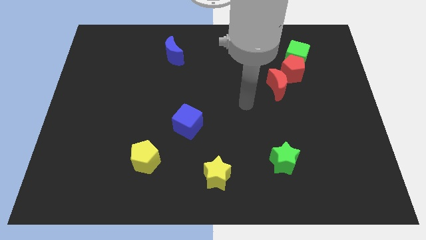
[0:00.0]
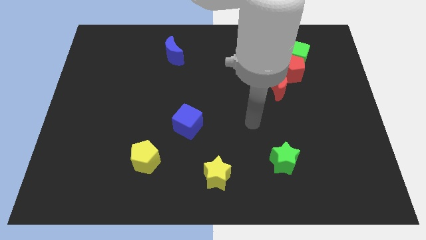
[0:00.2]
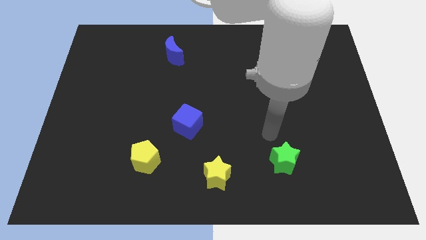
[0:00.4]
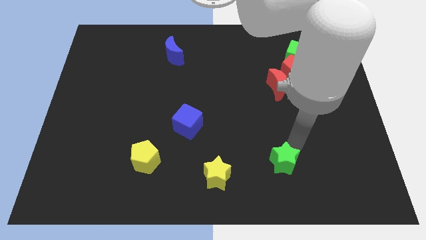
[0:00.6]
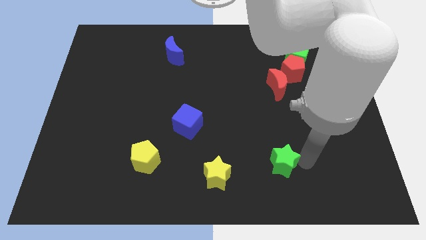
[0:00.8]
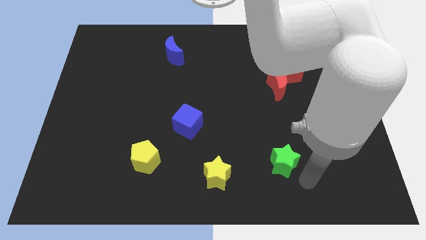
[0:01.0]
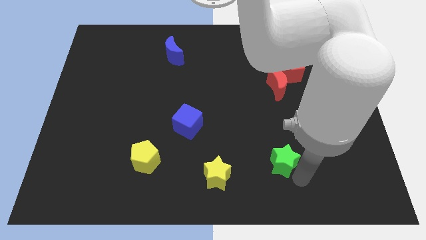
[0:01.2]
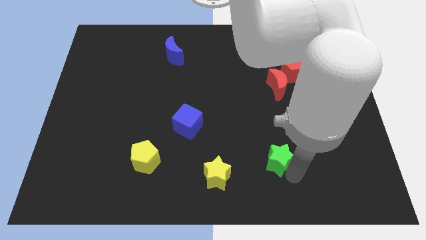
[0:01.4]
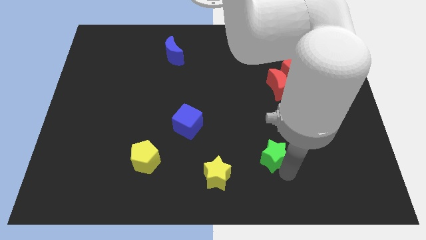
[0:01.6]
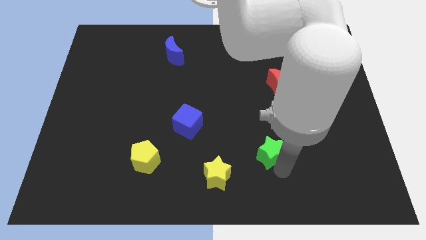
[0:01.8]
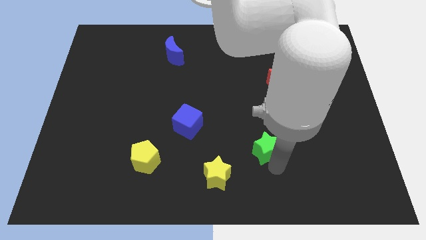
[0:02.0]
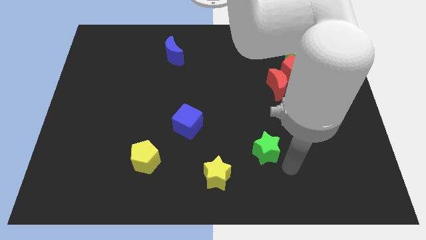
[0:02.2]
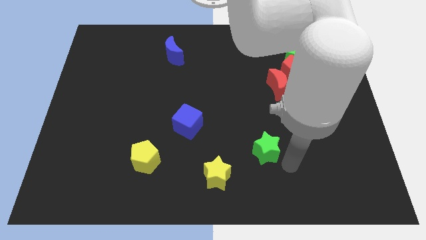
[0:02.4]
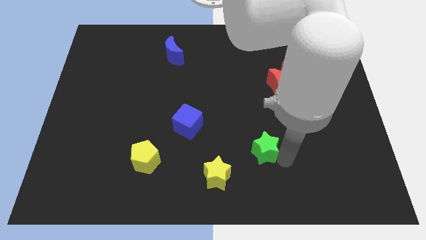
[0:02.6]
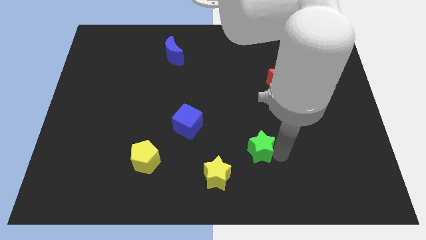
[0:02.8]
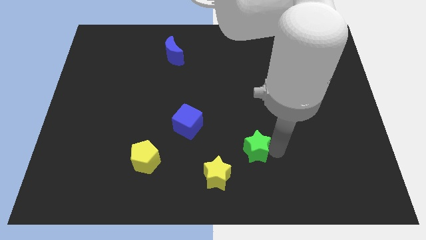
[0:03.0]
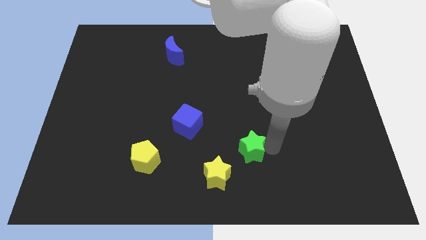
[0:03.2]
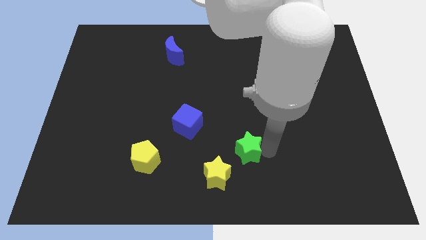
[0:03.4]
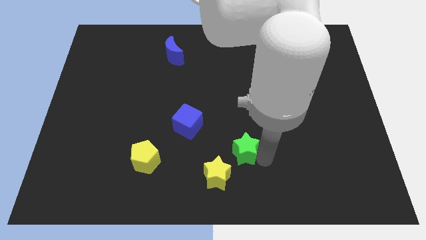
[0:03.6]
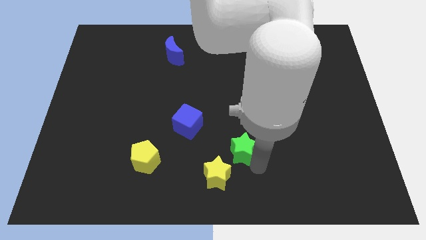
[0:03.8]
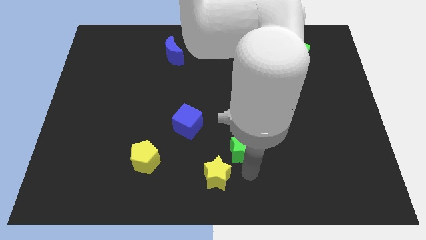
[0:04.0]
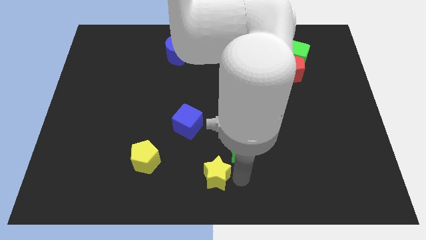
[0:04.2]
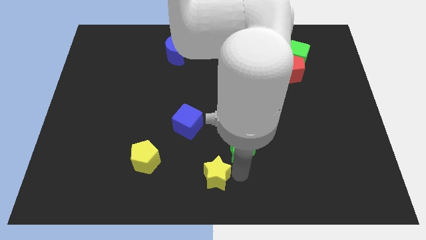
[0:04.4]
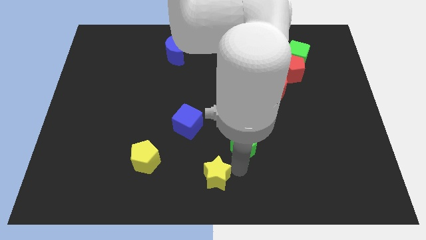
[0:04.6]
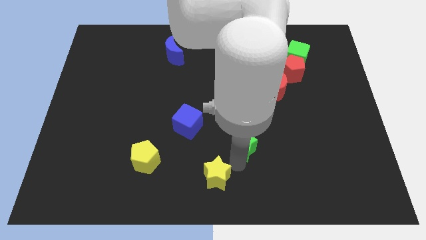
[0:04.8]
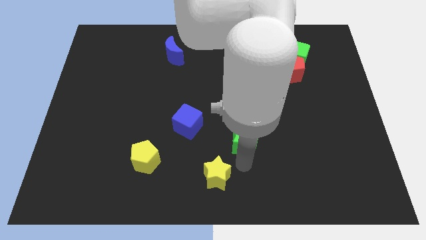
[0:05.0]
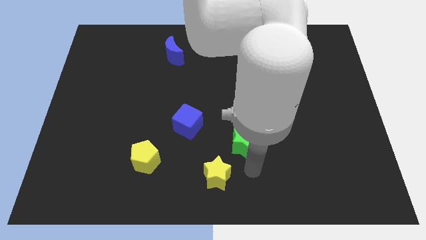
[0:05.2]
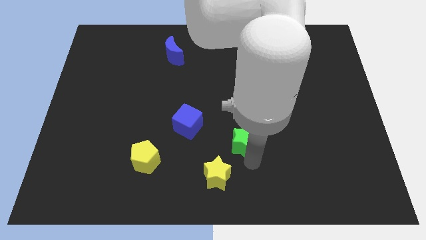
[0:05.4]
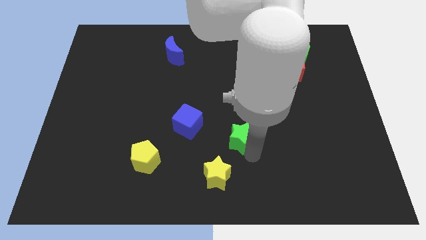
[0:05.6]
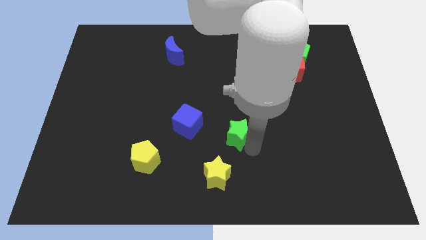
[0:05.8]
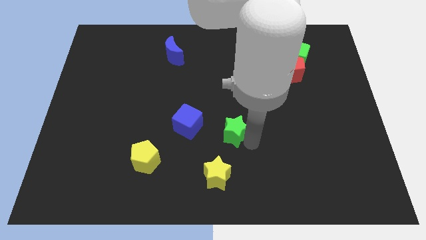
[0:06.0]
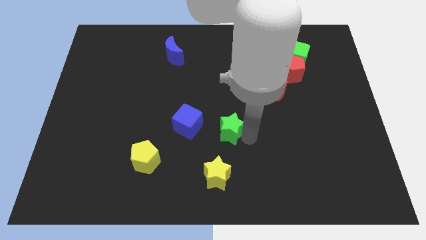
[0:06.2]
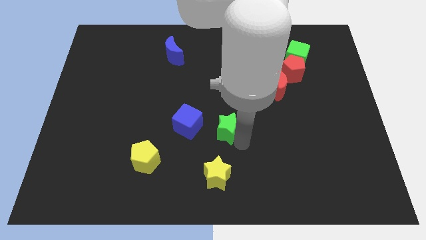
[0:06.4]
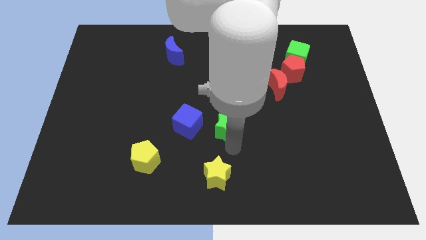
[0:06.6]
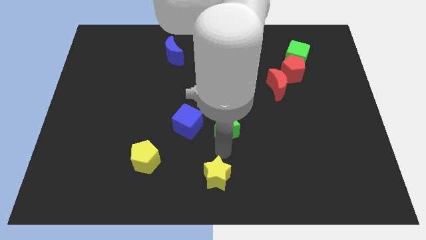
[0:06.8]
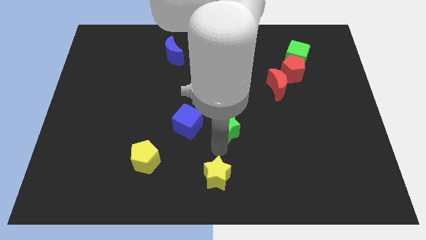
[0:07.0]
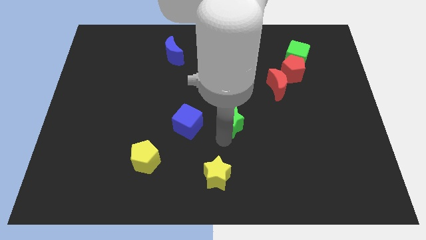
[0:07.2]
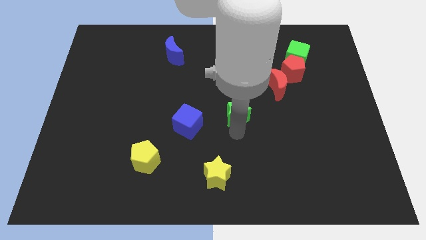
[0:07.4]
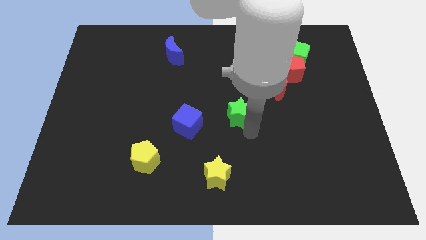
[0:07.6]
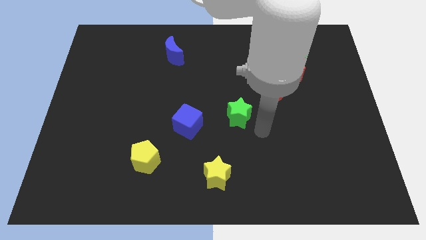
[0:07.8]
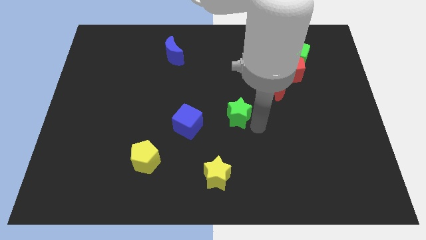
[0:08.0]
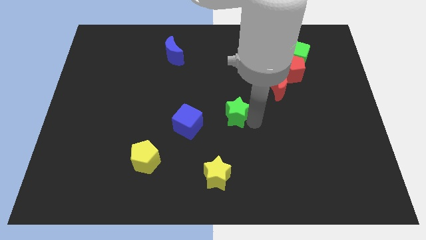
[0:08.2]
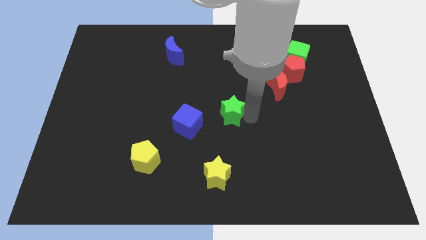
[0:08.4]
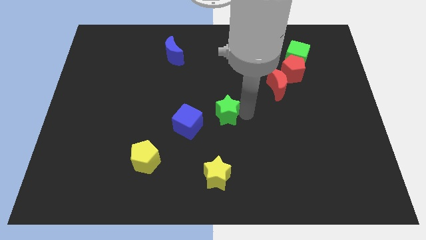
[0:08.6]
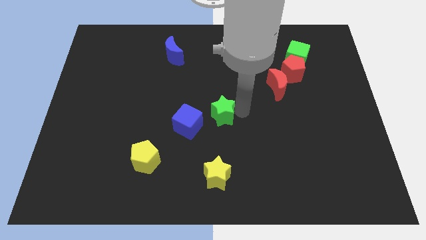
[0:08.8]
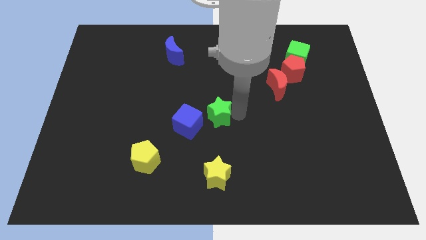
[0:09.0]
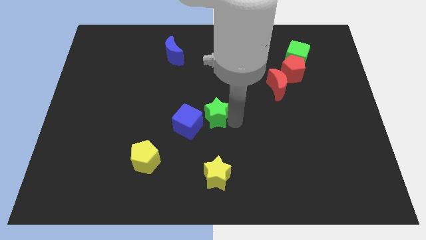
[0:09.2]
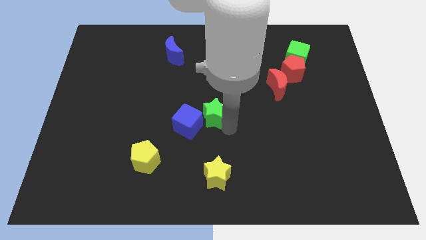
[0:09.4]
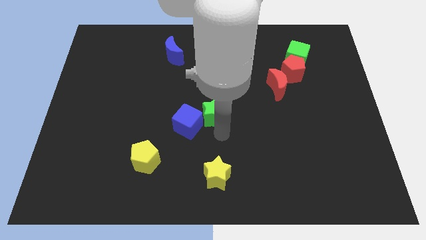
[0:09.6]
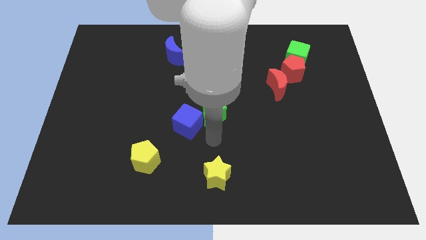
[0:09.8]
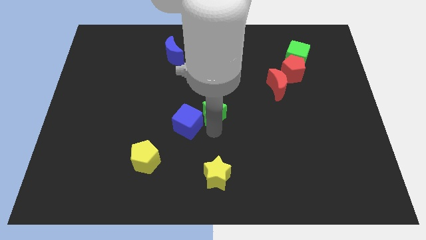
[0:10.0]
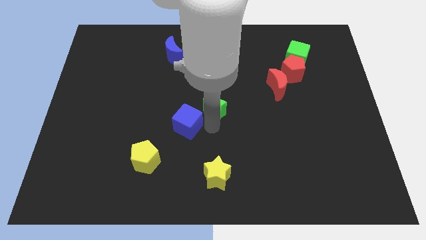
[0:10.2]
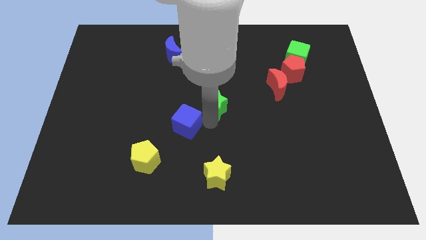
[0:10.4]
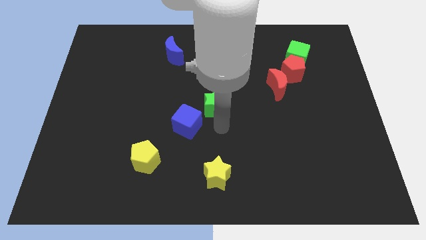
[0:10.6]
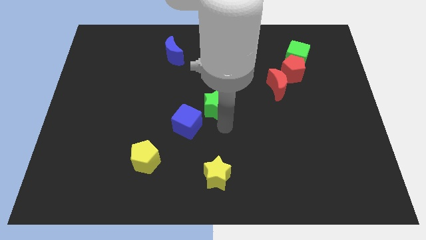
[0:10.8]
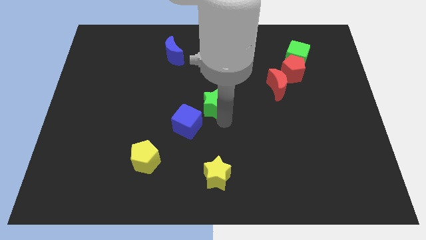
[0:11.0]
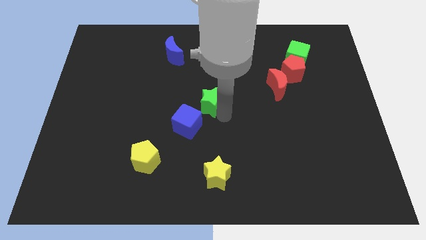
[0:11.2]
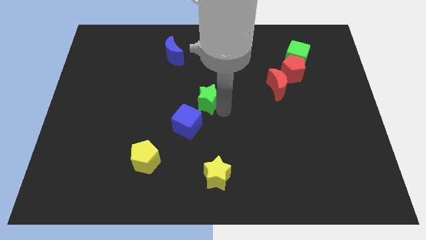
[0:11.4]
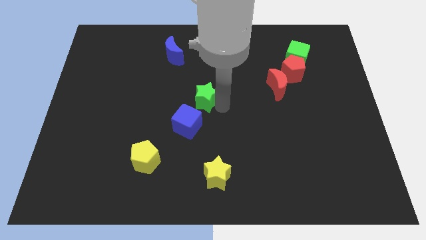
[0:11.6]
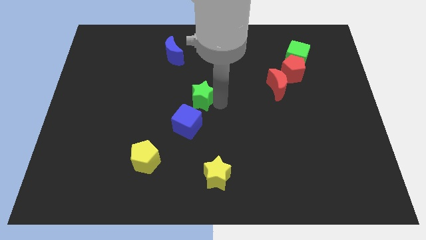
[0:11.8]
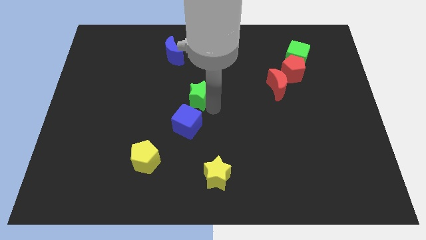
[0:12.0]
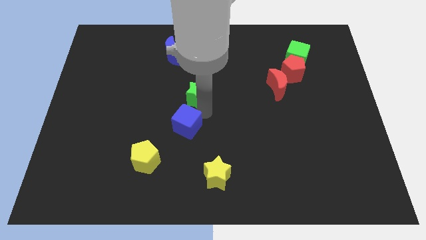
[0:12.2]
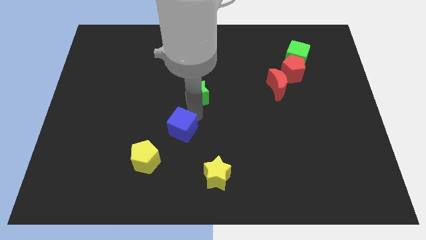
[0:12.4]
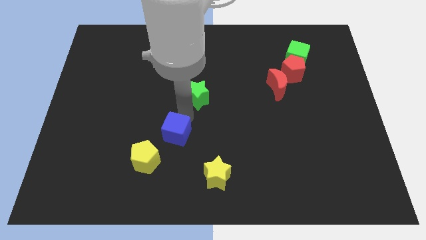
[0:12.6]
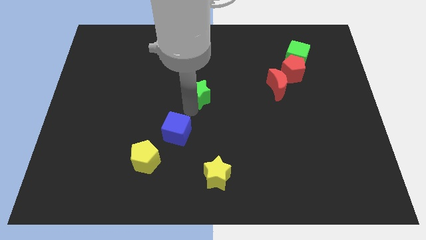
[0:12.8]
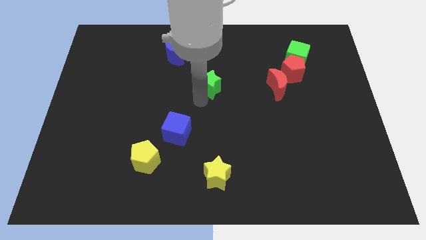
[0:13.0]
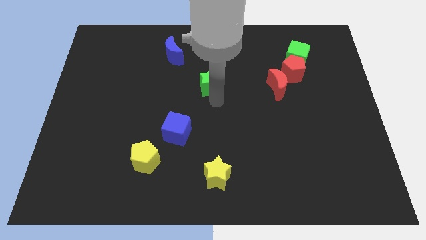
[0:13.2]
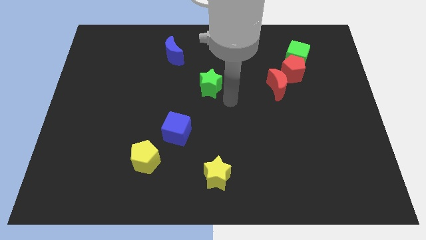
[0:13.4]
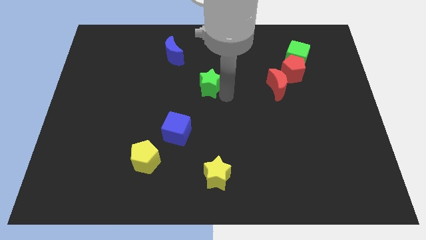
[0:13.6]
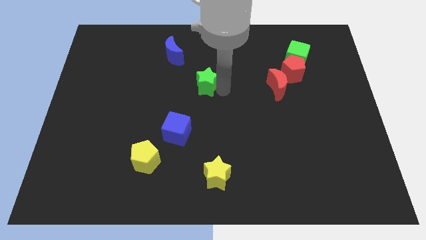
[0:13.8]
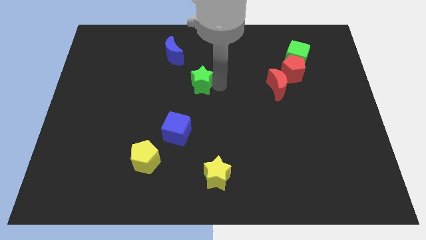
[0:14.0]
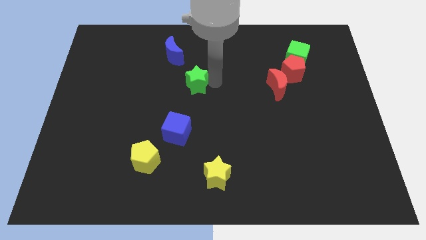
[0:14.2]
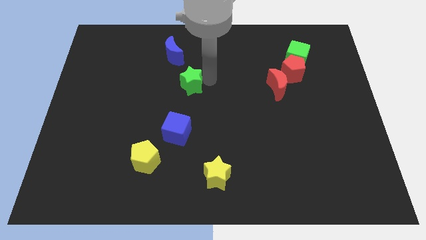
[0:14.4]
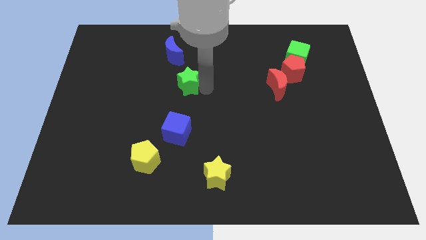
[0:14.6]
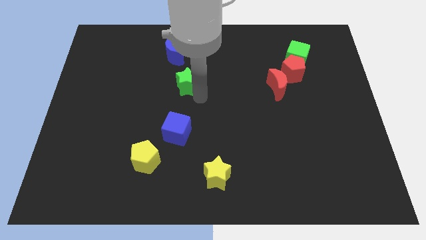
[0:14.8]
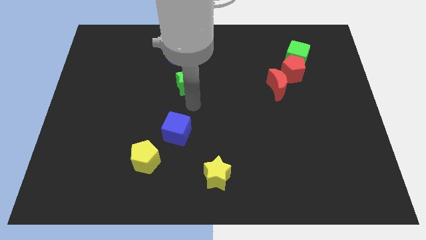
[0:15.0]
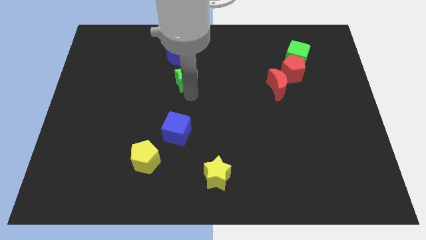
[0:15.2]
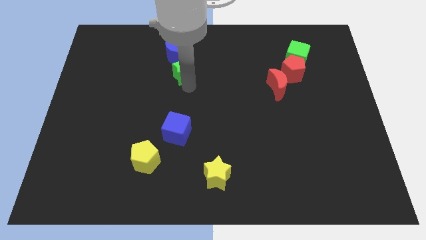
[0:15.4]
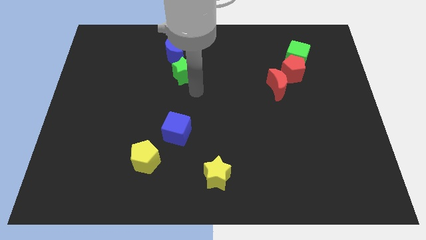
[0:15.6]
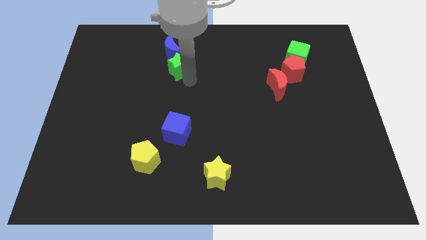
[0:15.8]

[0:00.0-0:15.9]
push the green star next to the blue moon
